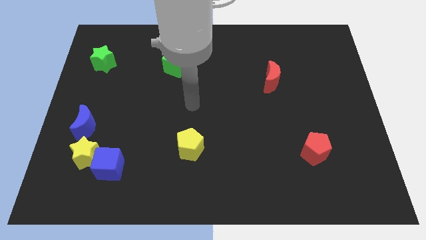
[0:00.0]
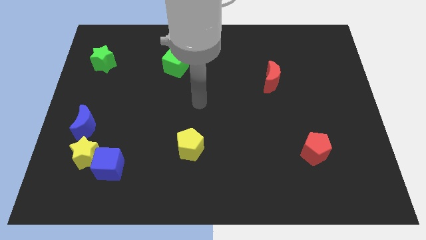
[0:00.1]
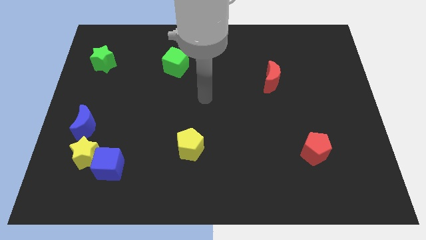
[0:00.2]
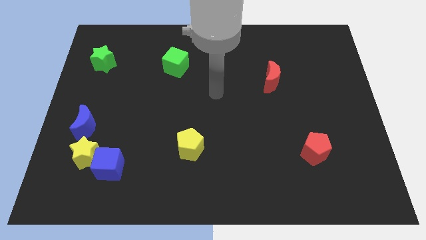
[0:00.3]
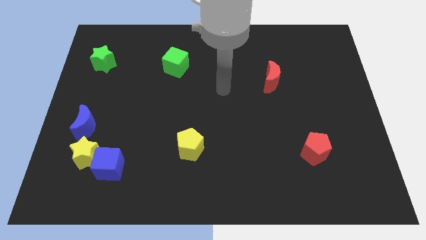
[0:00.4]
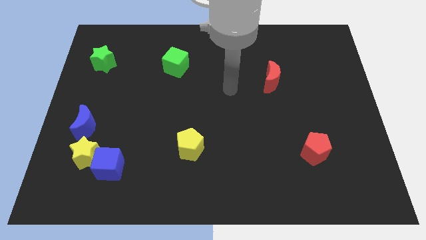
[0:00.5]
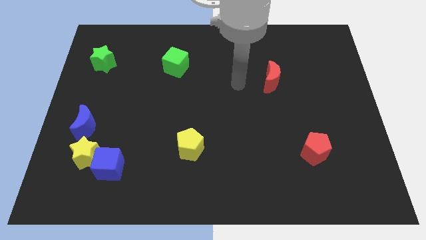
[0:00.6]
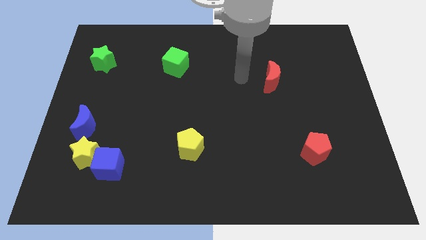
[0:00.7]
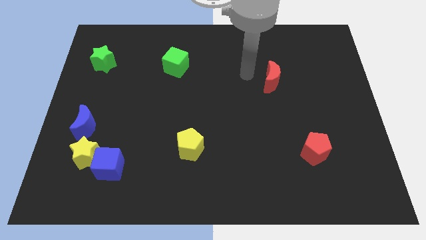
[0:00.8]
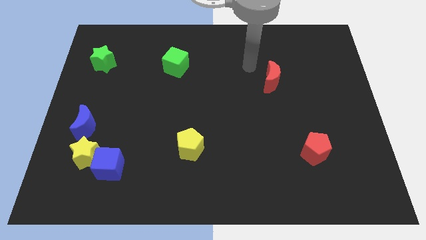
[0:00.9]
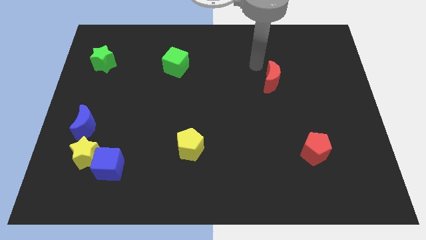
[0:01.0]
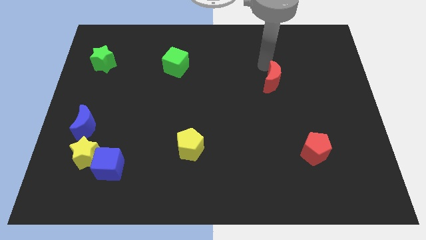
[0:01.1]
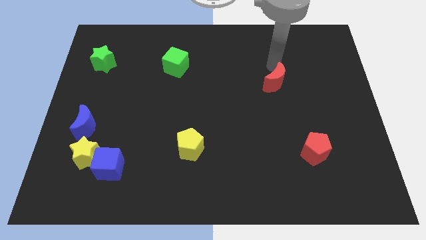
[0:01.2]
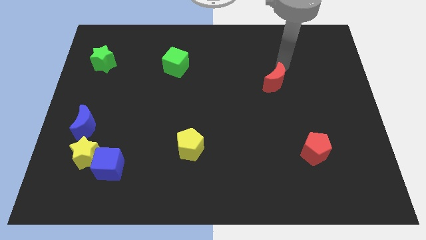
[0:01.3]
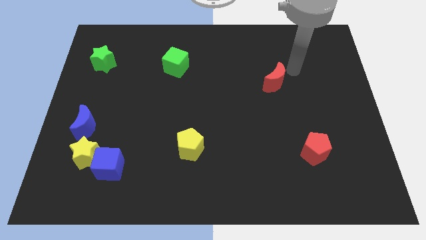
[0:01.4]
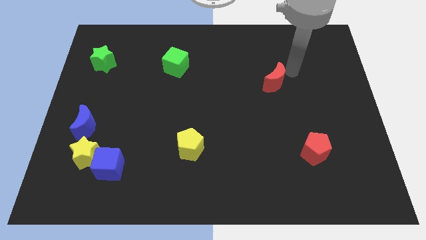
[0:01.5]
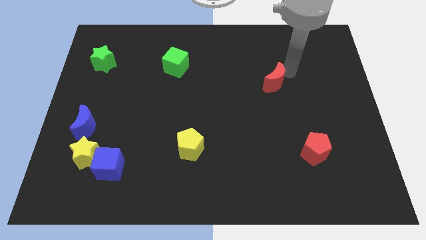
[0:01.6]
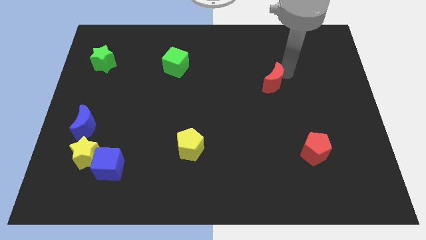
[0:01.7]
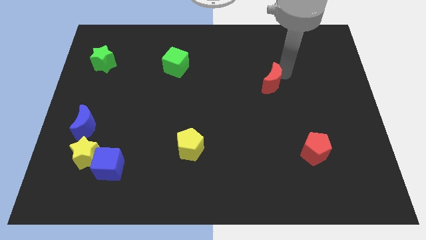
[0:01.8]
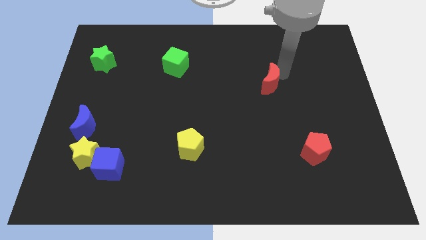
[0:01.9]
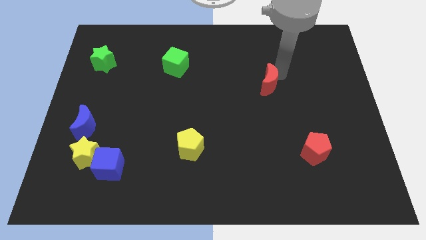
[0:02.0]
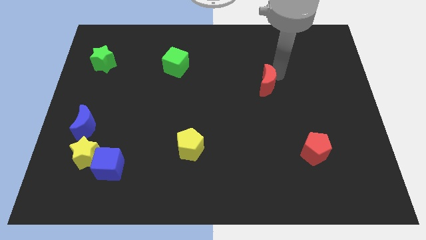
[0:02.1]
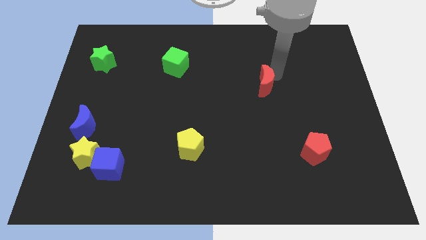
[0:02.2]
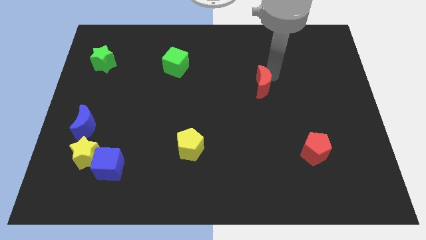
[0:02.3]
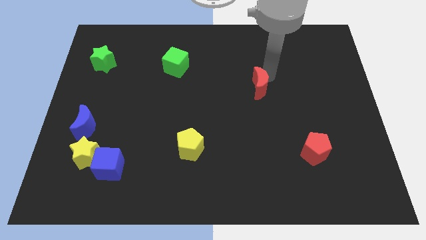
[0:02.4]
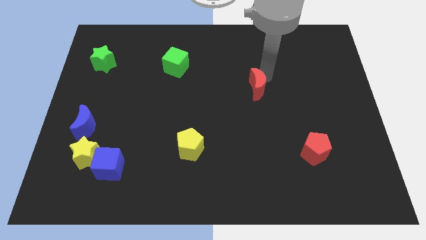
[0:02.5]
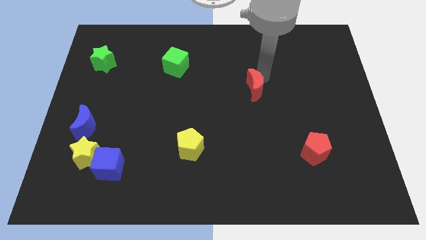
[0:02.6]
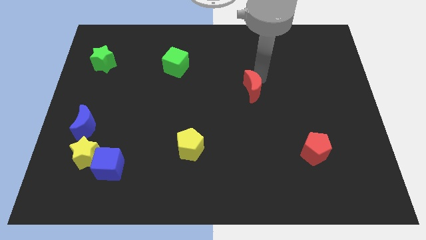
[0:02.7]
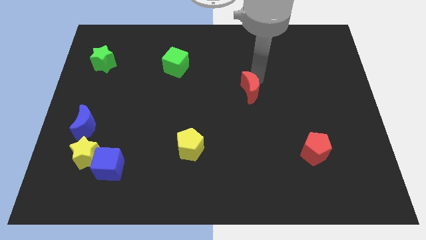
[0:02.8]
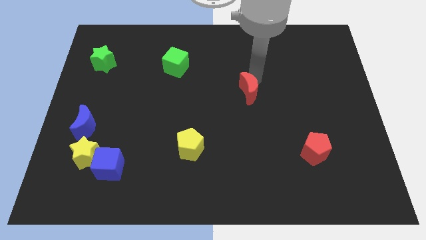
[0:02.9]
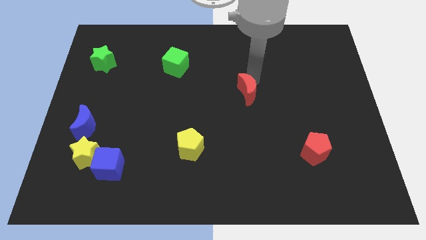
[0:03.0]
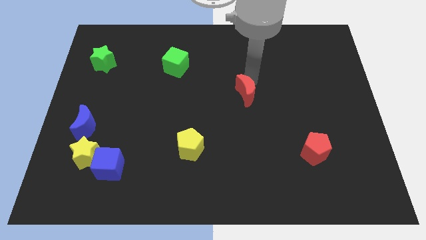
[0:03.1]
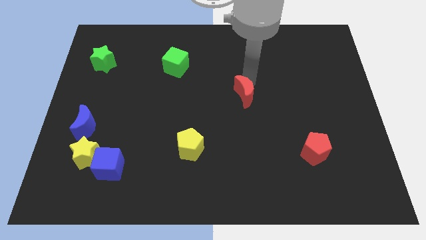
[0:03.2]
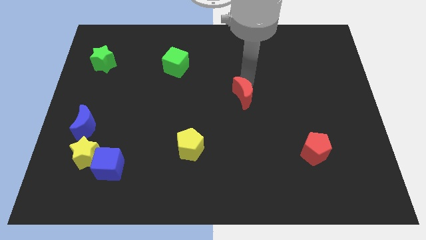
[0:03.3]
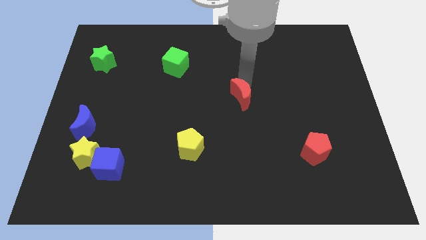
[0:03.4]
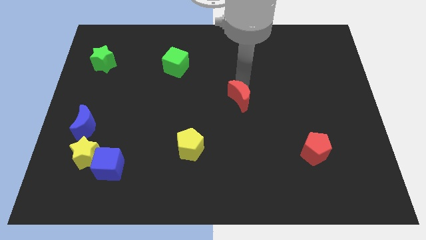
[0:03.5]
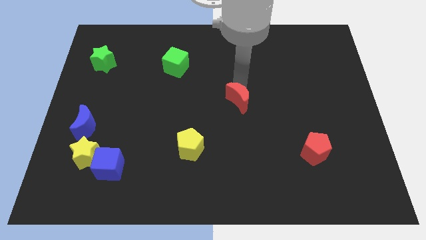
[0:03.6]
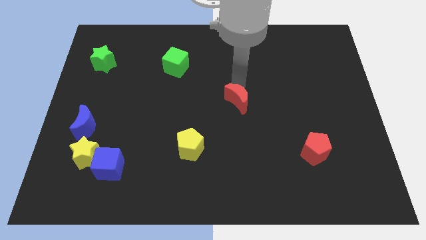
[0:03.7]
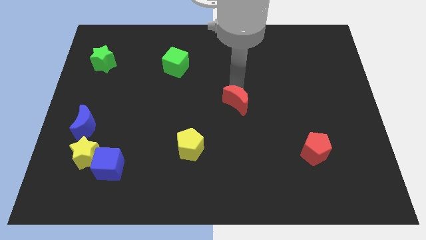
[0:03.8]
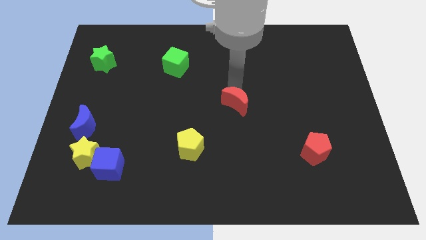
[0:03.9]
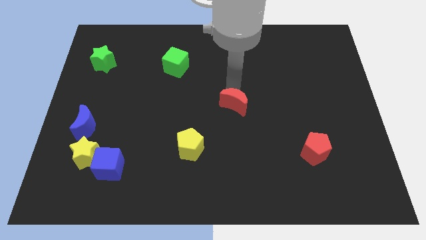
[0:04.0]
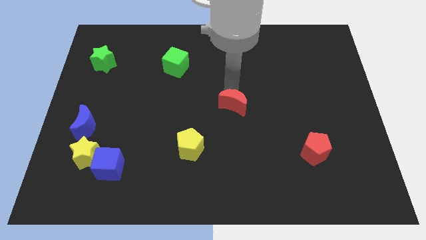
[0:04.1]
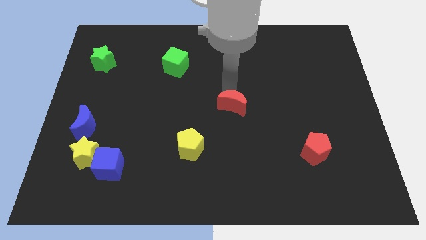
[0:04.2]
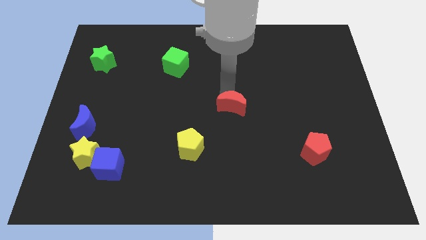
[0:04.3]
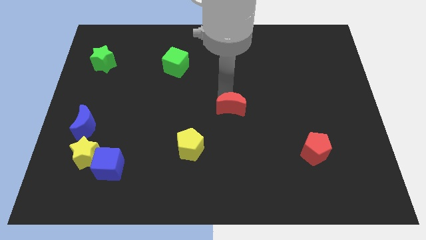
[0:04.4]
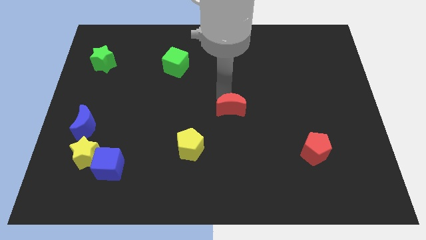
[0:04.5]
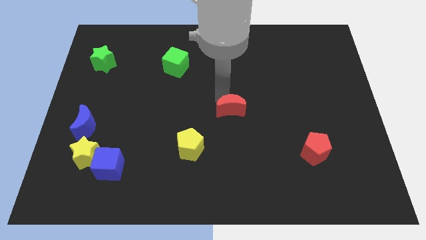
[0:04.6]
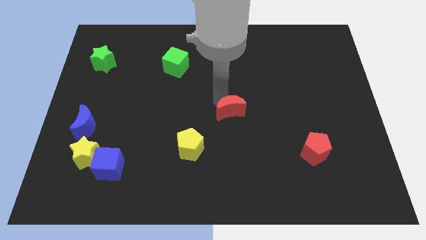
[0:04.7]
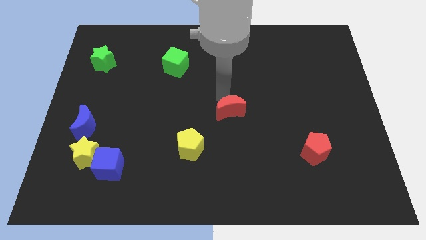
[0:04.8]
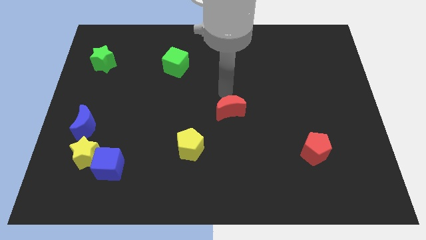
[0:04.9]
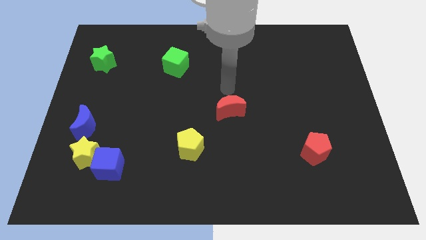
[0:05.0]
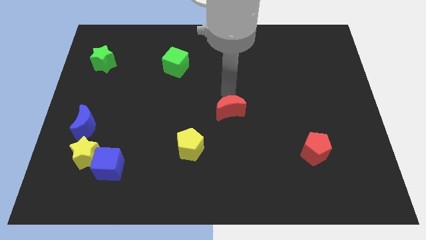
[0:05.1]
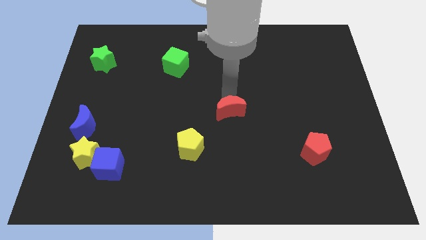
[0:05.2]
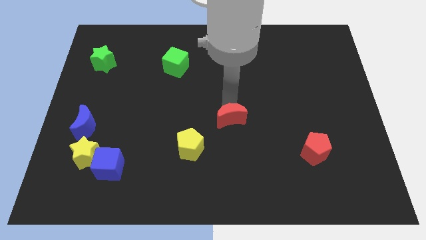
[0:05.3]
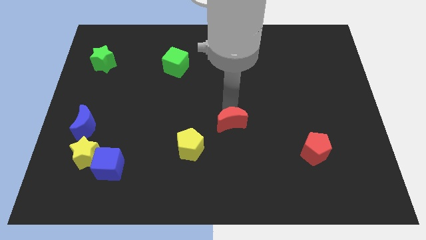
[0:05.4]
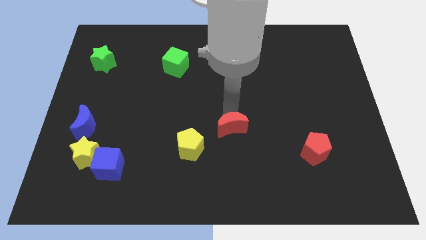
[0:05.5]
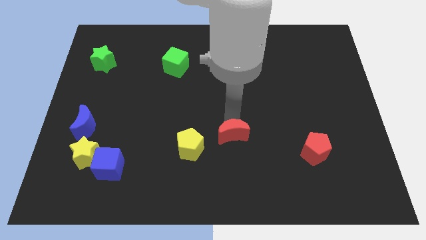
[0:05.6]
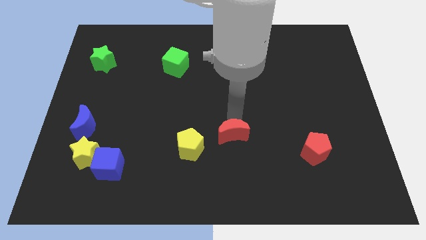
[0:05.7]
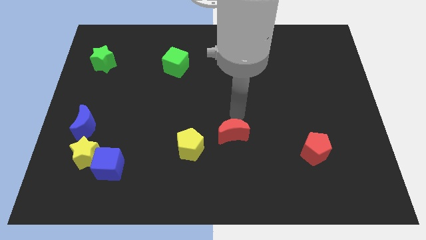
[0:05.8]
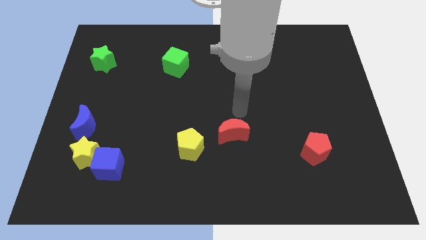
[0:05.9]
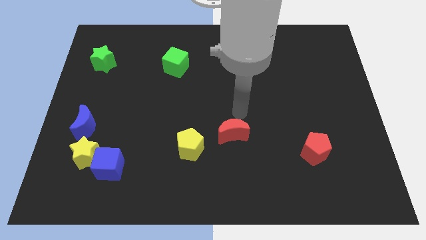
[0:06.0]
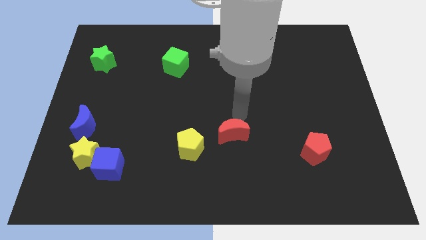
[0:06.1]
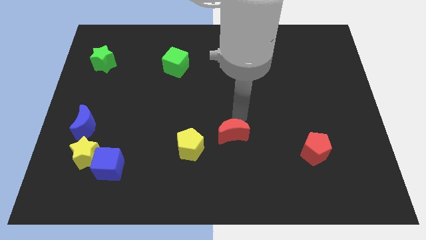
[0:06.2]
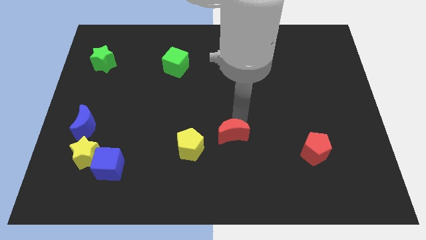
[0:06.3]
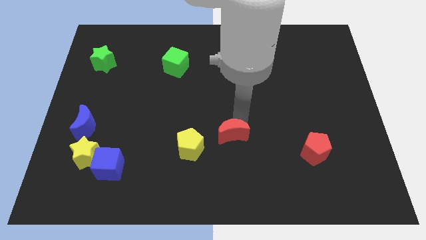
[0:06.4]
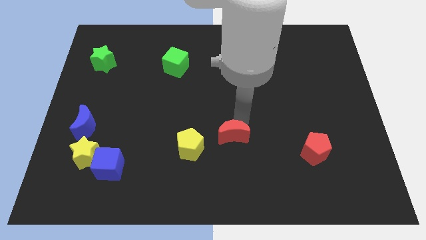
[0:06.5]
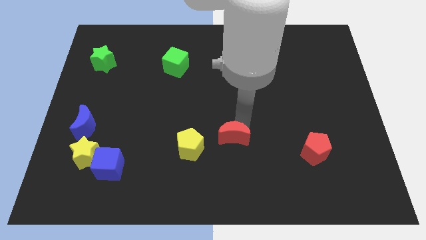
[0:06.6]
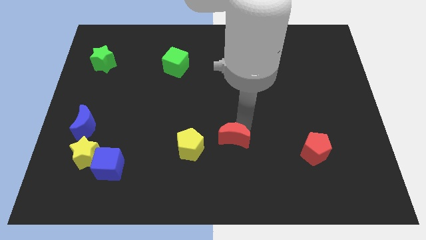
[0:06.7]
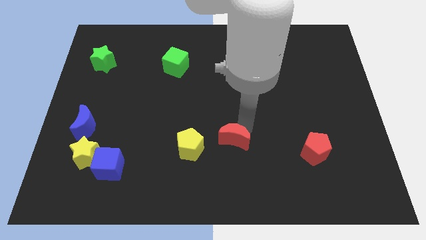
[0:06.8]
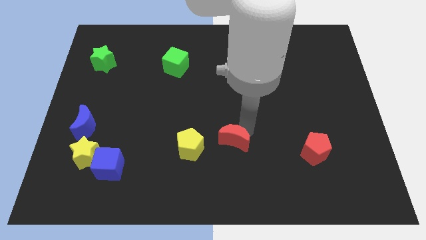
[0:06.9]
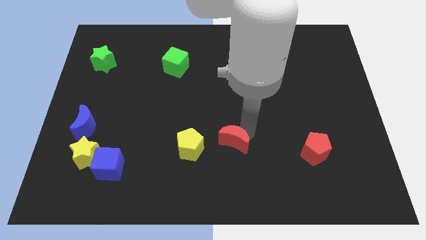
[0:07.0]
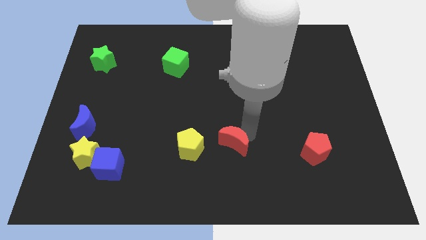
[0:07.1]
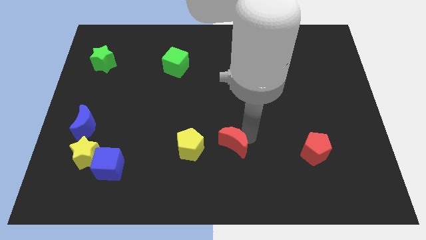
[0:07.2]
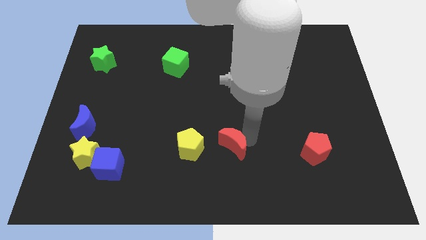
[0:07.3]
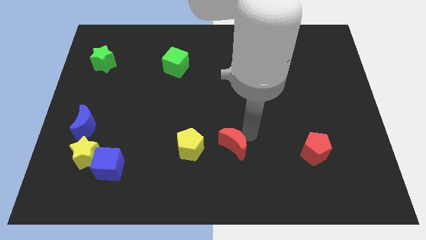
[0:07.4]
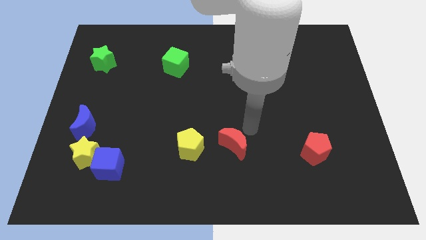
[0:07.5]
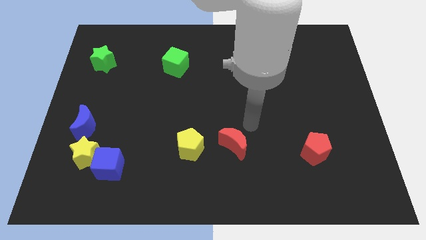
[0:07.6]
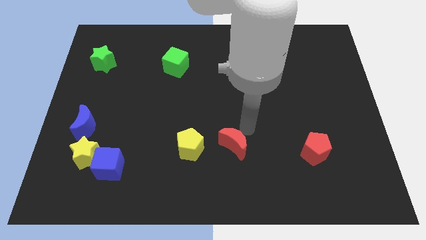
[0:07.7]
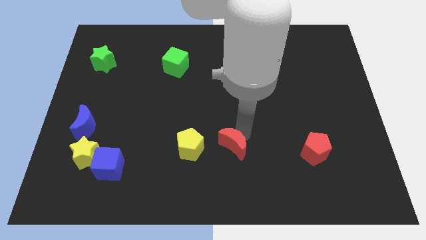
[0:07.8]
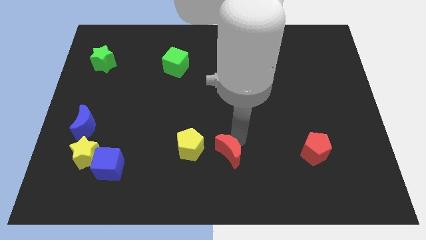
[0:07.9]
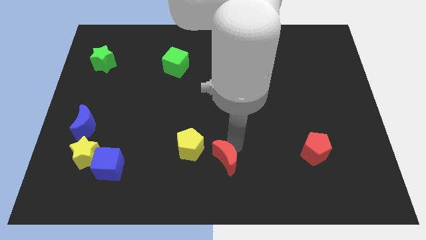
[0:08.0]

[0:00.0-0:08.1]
push the red moon diagonally down and to the right of the yellow pentagon
